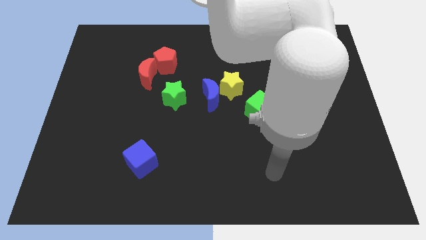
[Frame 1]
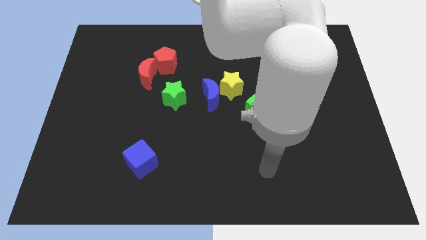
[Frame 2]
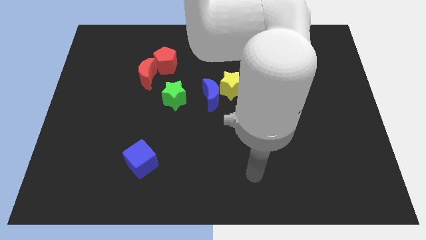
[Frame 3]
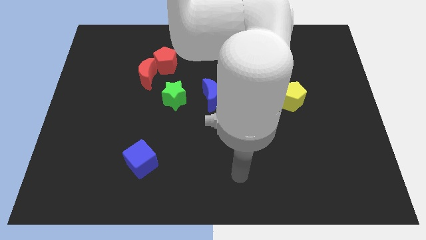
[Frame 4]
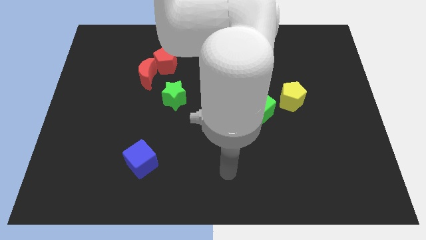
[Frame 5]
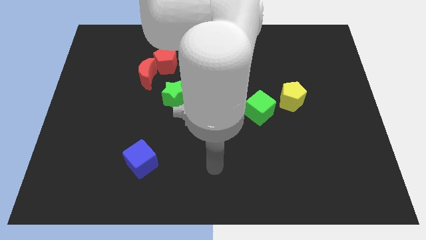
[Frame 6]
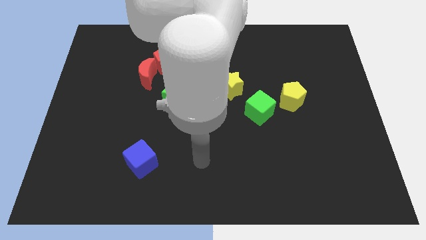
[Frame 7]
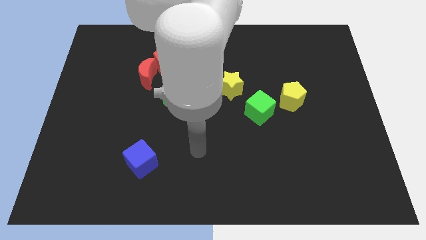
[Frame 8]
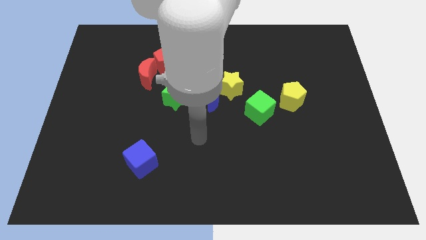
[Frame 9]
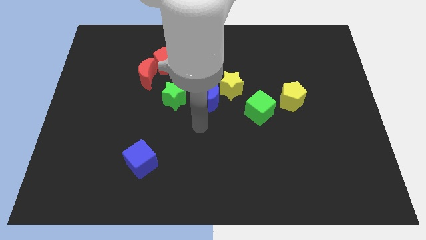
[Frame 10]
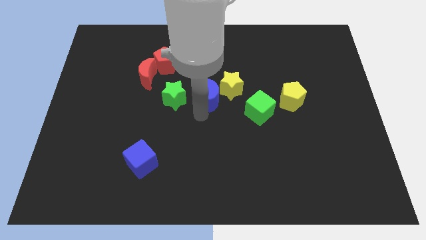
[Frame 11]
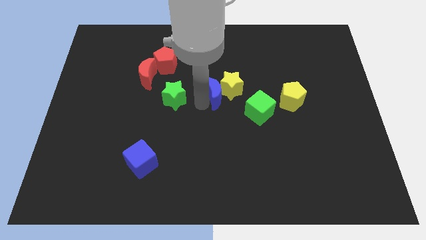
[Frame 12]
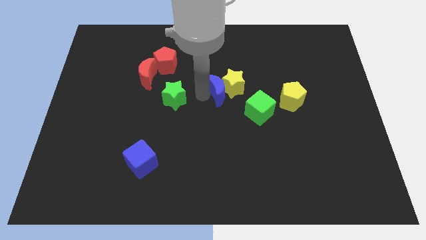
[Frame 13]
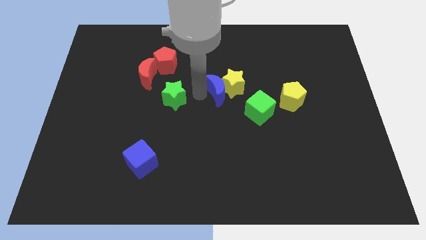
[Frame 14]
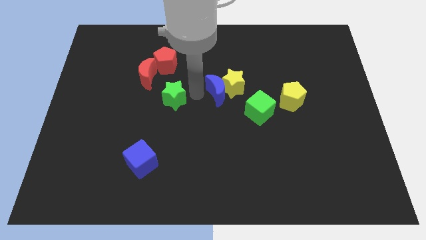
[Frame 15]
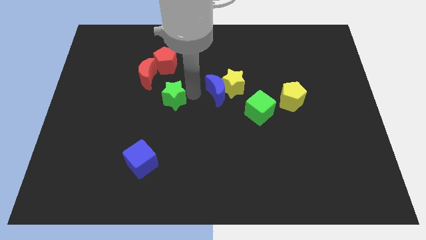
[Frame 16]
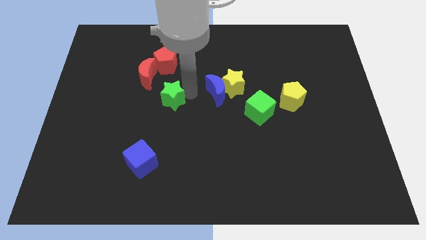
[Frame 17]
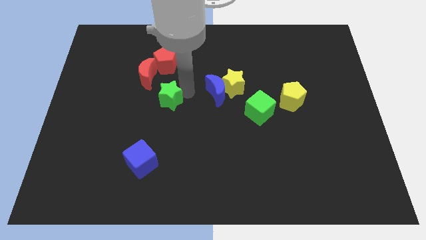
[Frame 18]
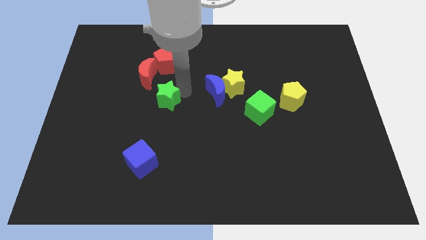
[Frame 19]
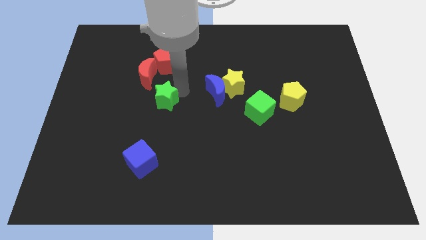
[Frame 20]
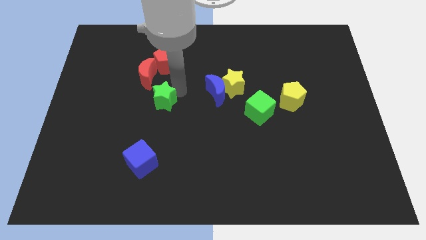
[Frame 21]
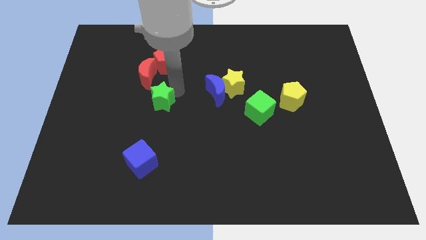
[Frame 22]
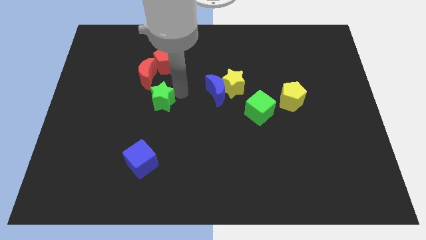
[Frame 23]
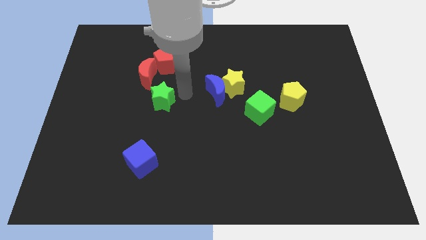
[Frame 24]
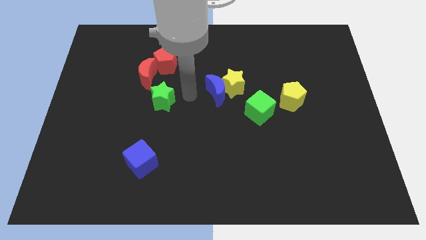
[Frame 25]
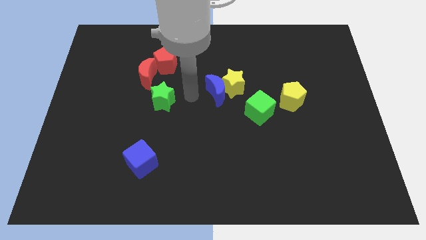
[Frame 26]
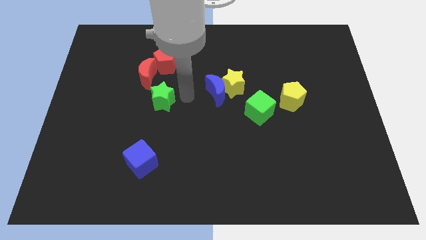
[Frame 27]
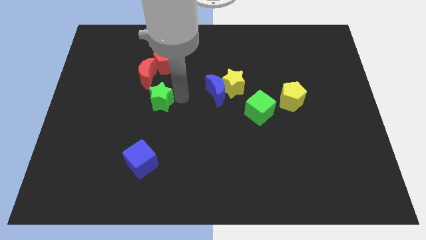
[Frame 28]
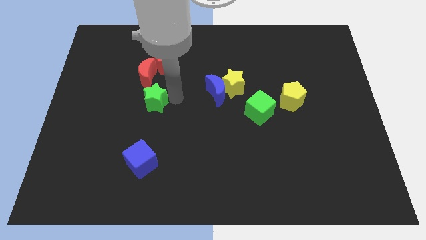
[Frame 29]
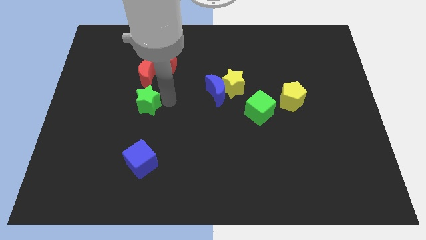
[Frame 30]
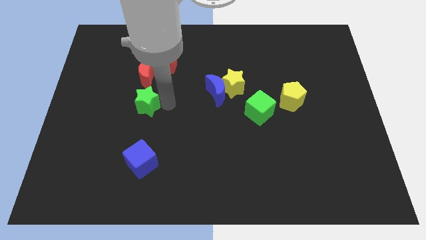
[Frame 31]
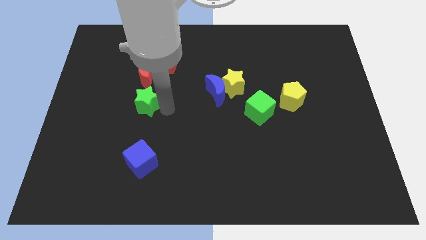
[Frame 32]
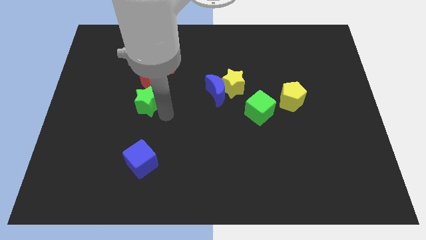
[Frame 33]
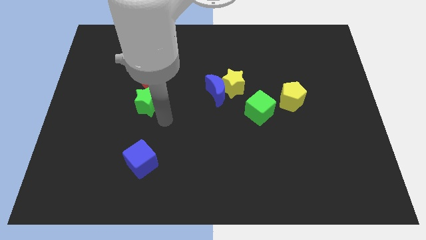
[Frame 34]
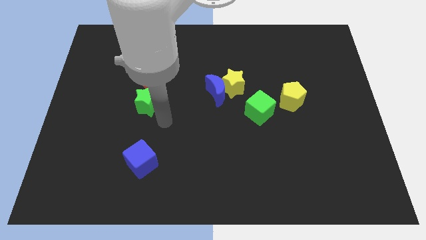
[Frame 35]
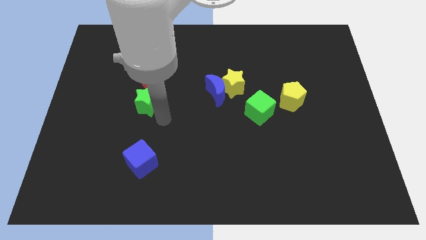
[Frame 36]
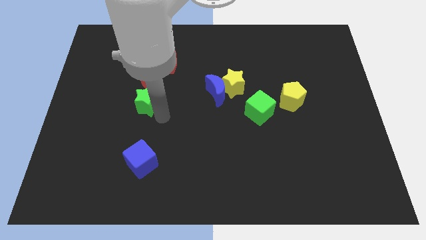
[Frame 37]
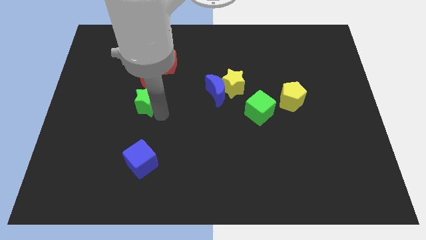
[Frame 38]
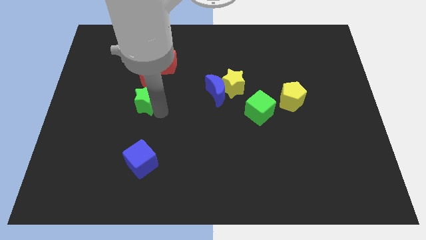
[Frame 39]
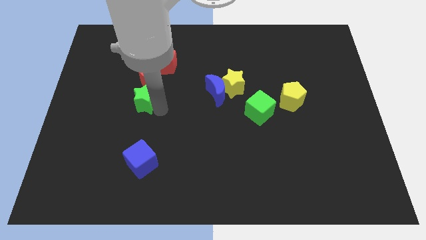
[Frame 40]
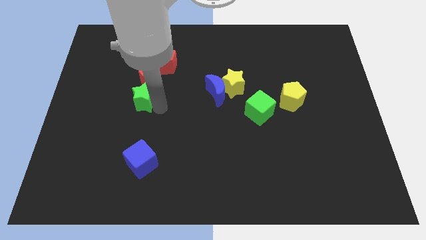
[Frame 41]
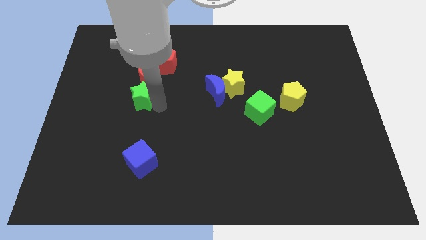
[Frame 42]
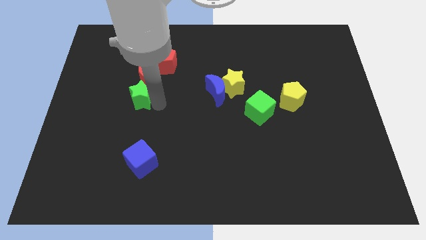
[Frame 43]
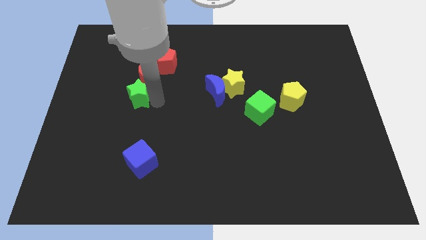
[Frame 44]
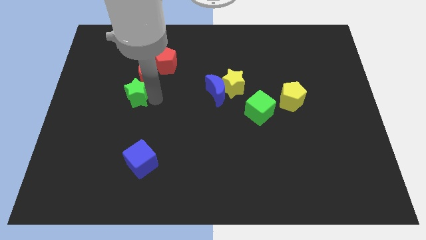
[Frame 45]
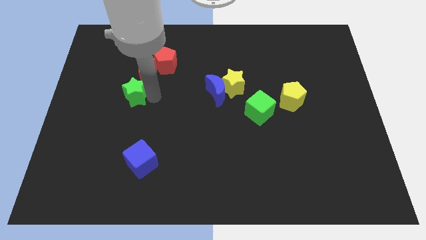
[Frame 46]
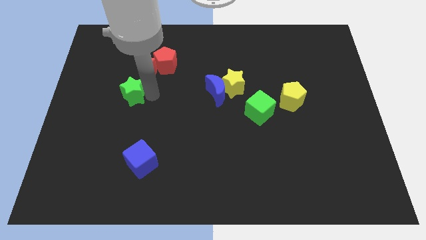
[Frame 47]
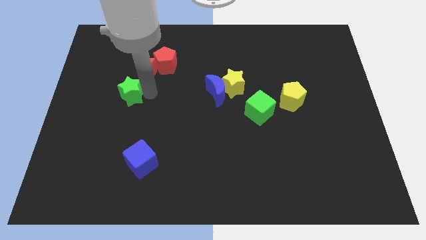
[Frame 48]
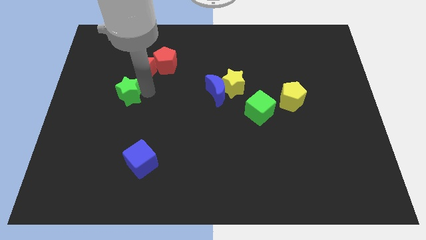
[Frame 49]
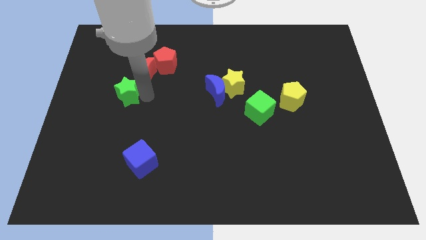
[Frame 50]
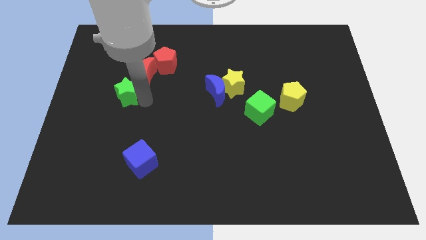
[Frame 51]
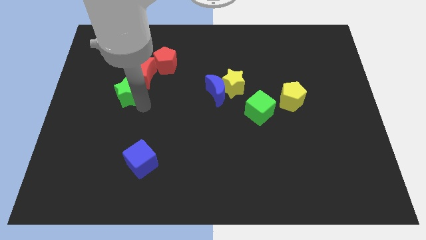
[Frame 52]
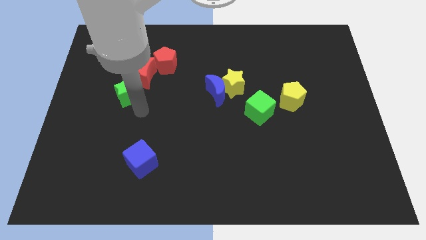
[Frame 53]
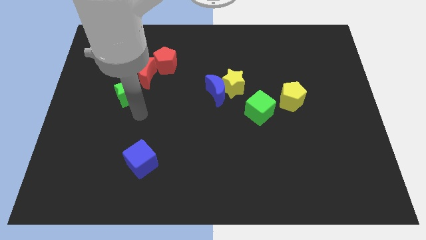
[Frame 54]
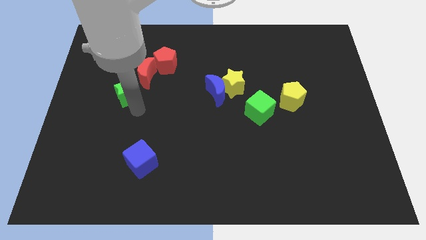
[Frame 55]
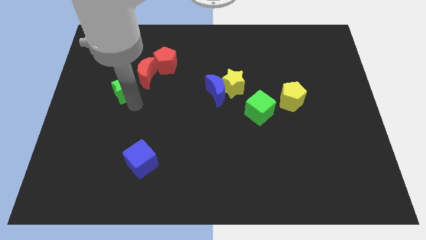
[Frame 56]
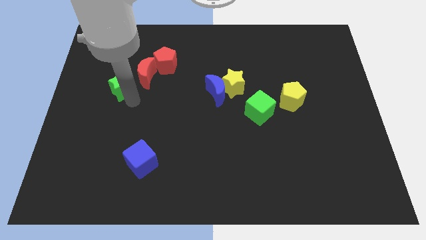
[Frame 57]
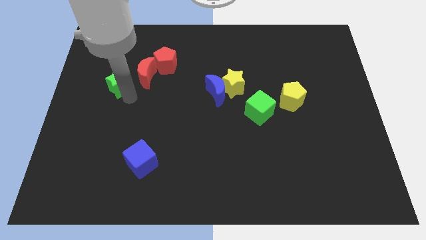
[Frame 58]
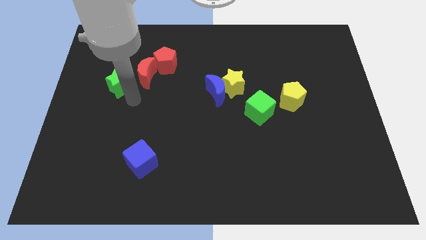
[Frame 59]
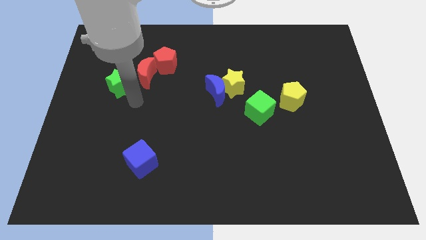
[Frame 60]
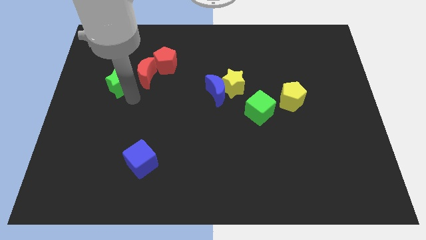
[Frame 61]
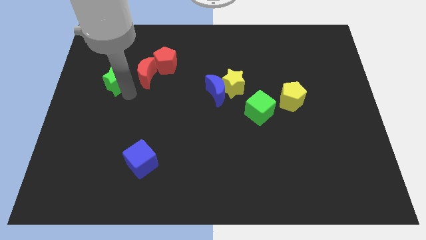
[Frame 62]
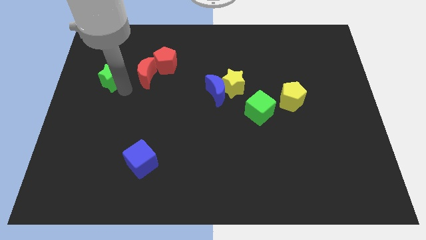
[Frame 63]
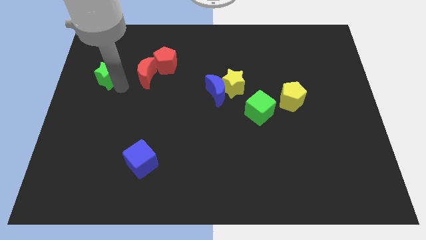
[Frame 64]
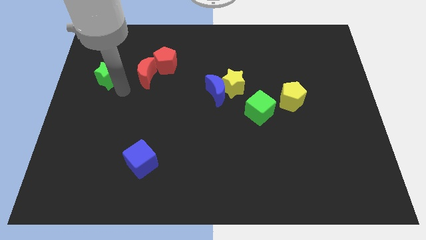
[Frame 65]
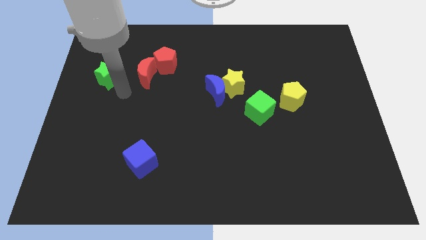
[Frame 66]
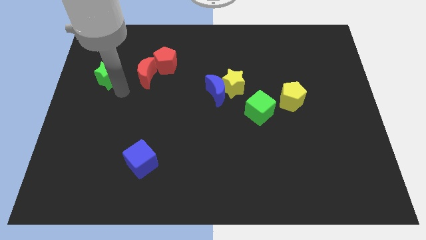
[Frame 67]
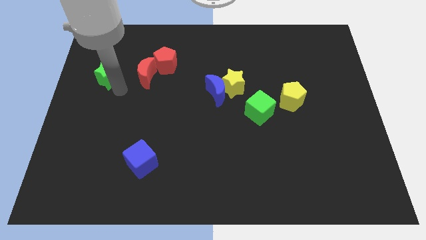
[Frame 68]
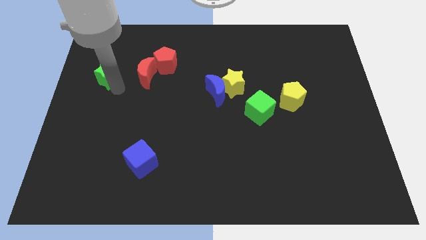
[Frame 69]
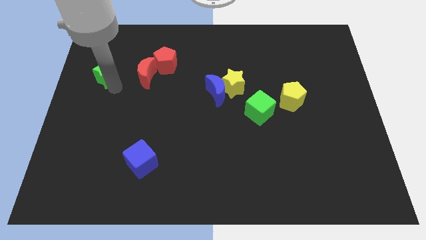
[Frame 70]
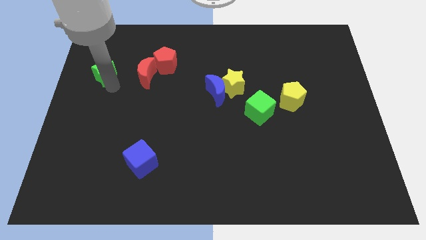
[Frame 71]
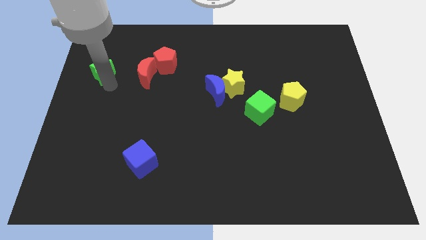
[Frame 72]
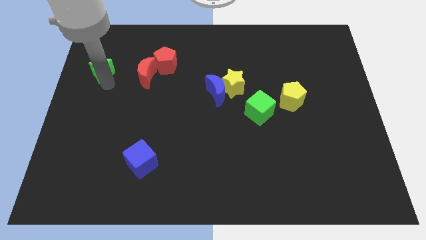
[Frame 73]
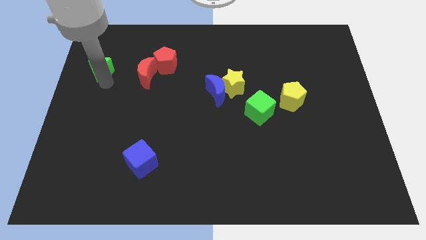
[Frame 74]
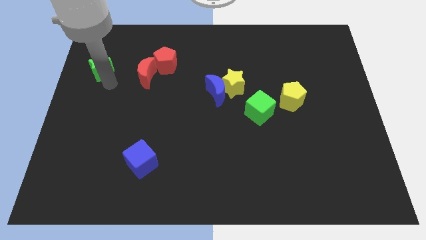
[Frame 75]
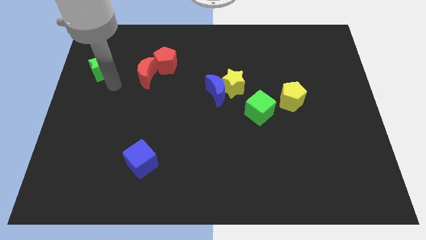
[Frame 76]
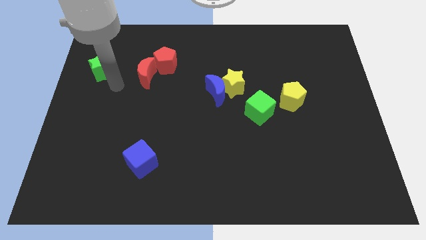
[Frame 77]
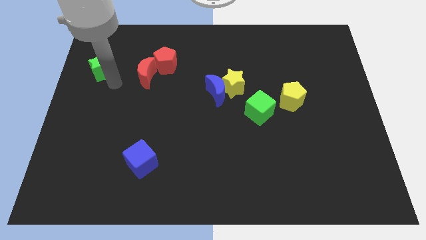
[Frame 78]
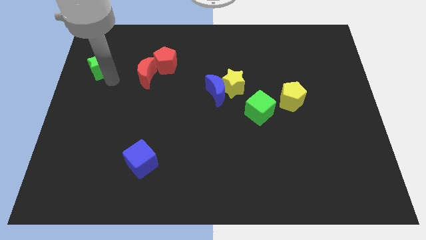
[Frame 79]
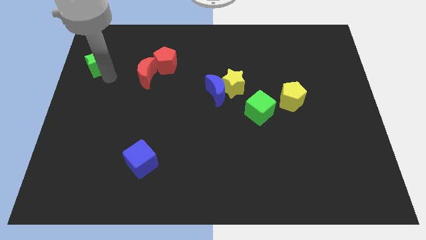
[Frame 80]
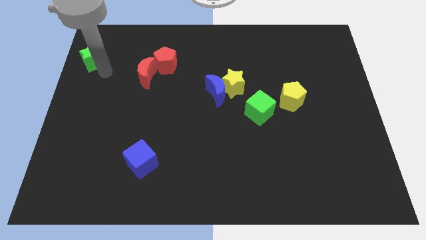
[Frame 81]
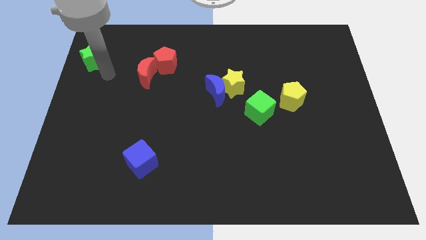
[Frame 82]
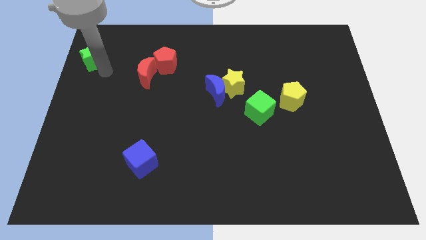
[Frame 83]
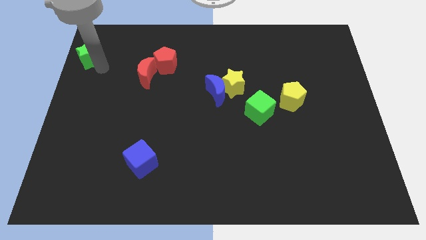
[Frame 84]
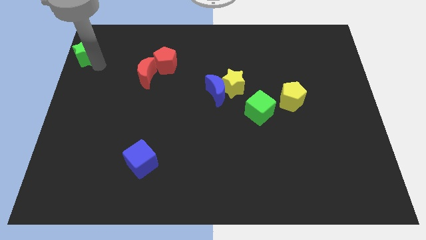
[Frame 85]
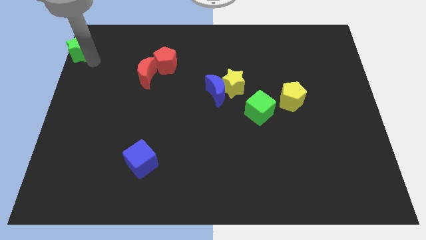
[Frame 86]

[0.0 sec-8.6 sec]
put the green star to the top left corner
